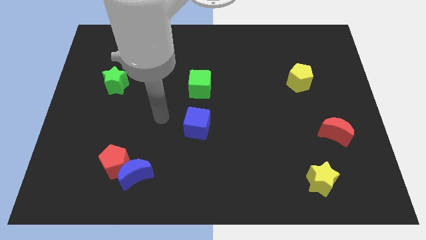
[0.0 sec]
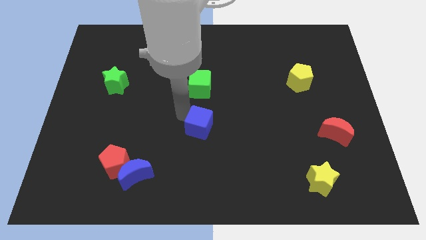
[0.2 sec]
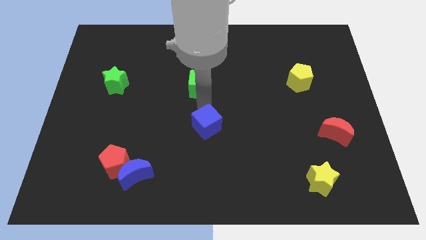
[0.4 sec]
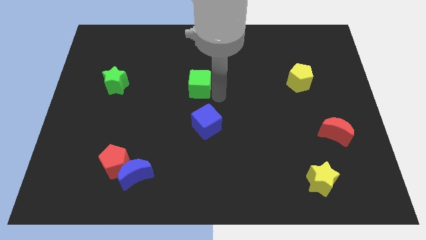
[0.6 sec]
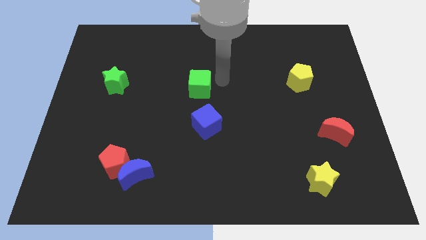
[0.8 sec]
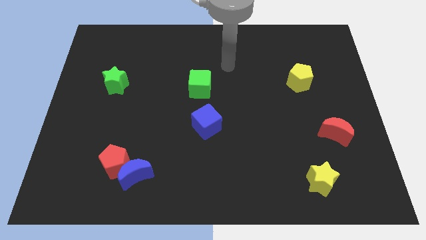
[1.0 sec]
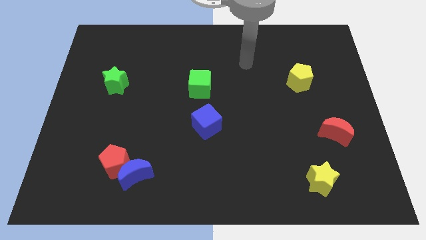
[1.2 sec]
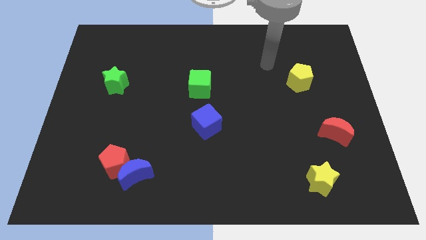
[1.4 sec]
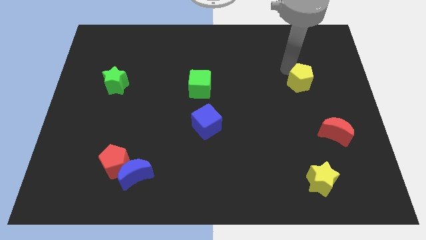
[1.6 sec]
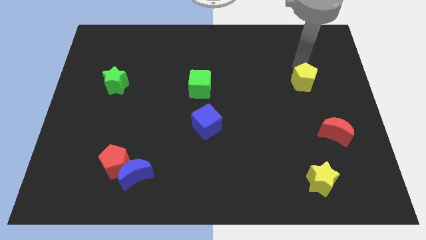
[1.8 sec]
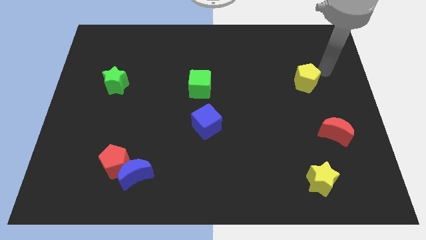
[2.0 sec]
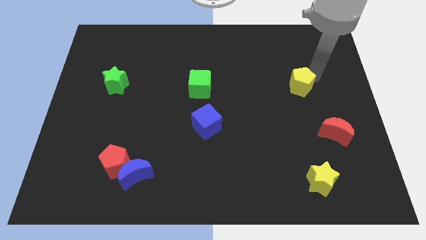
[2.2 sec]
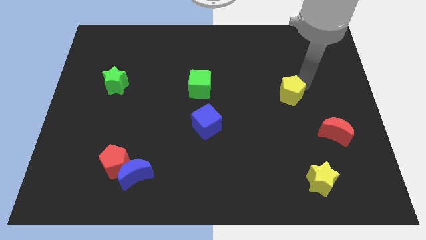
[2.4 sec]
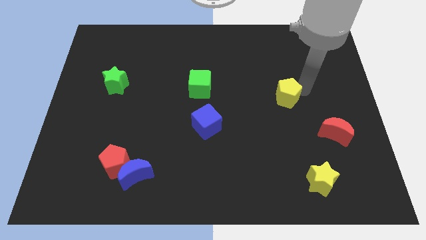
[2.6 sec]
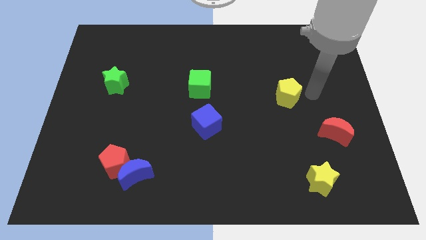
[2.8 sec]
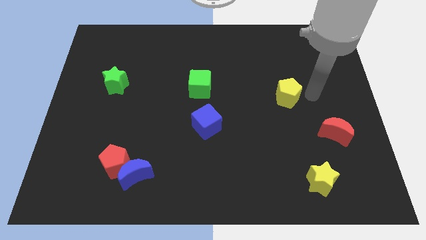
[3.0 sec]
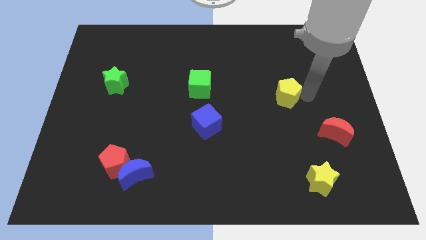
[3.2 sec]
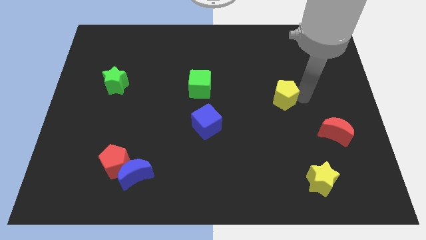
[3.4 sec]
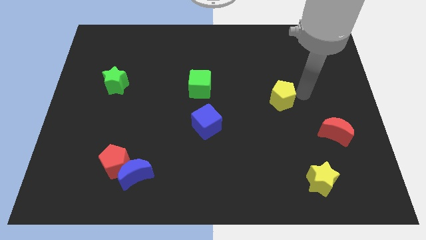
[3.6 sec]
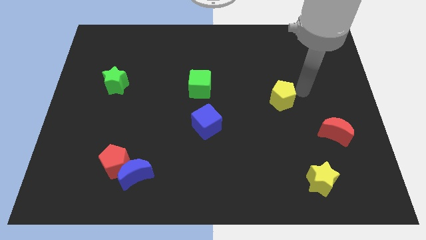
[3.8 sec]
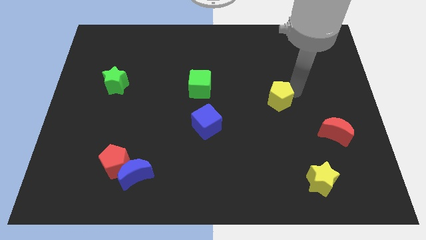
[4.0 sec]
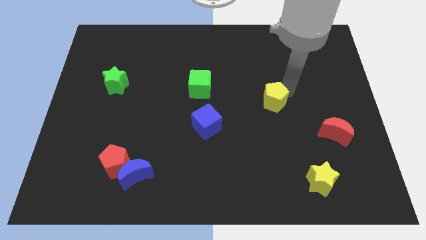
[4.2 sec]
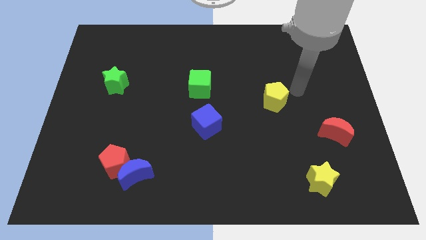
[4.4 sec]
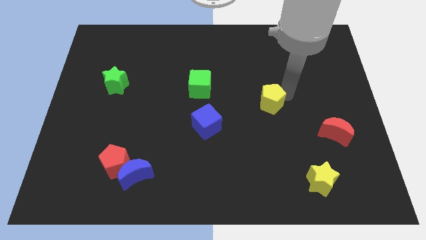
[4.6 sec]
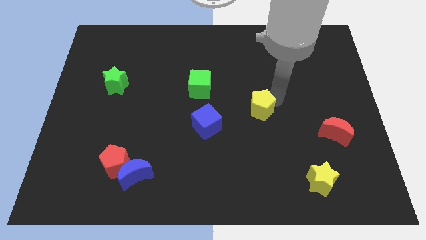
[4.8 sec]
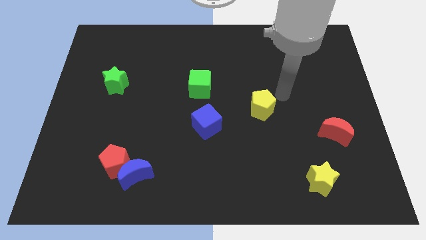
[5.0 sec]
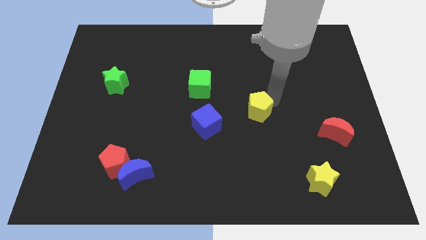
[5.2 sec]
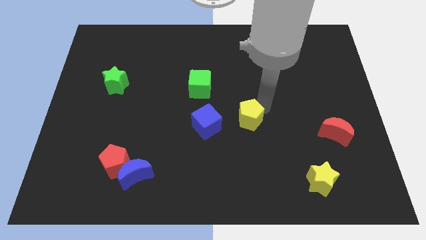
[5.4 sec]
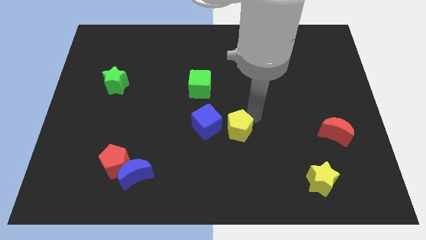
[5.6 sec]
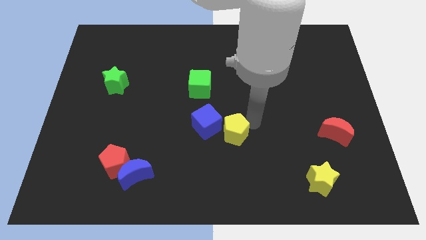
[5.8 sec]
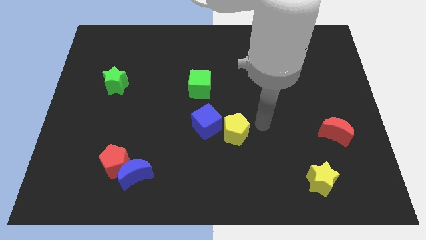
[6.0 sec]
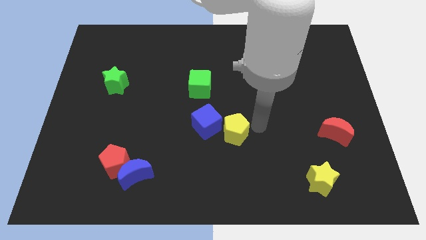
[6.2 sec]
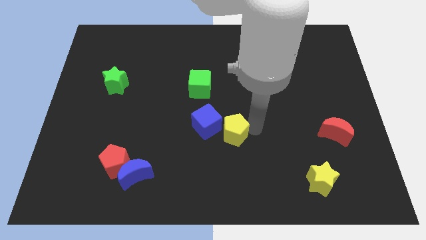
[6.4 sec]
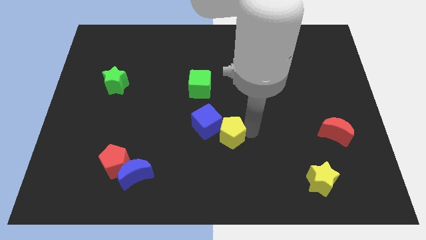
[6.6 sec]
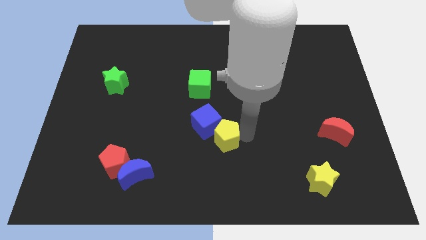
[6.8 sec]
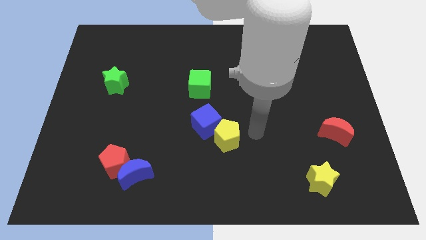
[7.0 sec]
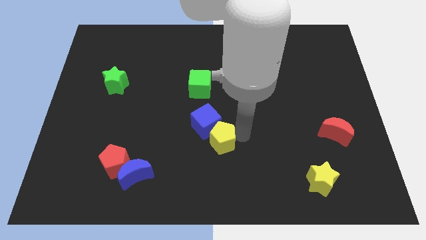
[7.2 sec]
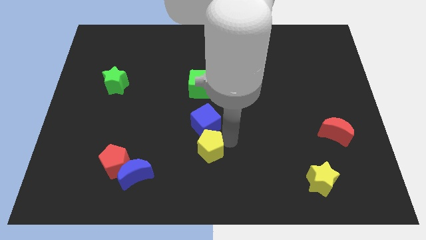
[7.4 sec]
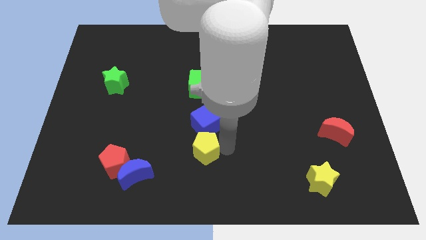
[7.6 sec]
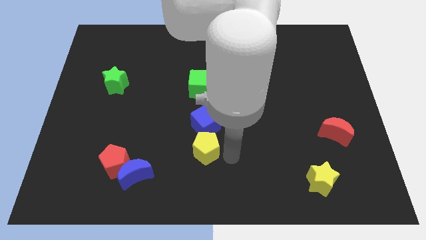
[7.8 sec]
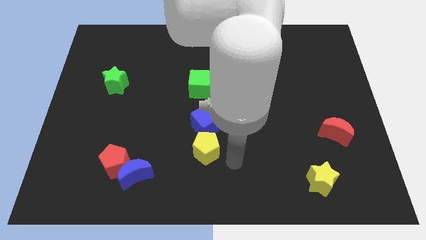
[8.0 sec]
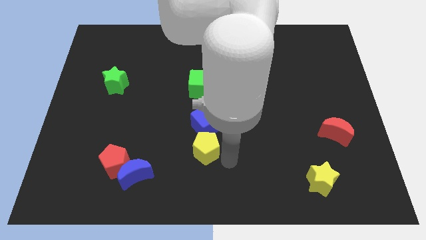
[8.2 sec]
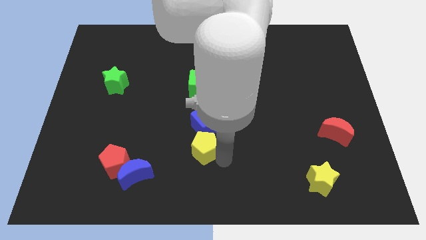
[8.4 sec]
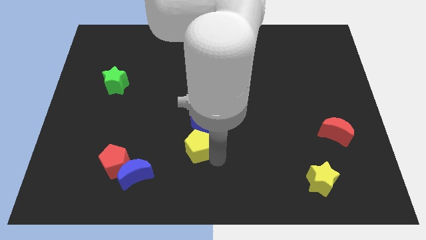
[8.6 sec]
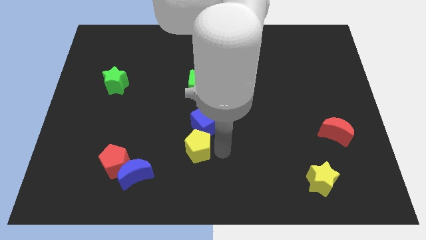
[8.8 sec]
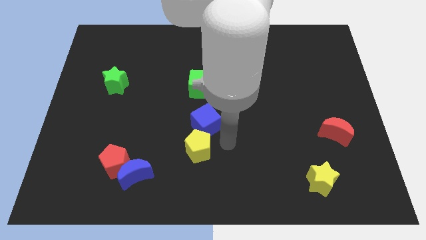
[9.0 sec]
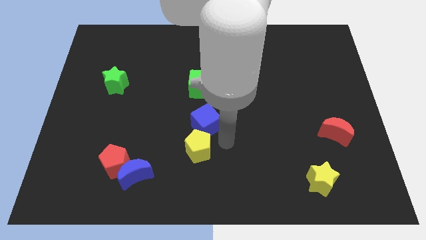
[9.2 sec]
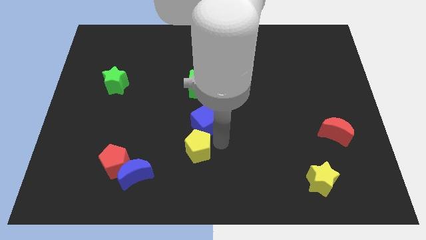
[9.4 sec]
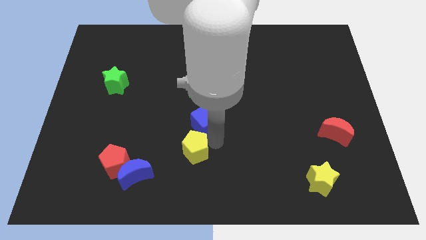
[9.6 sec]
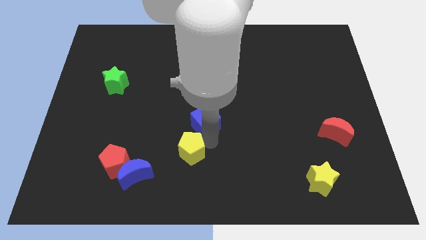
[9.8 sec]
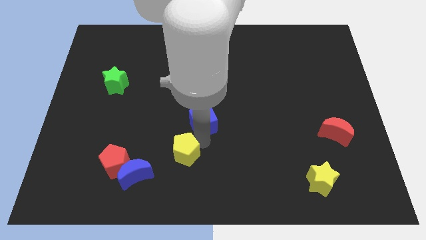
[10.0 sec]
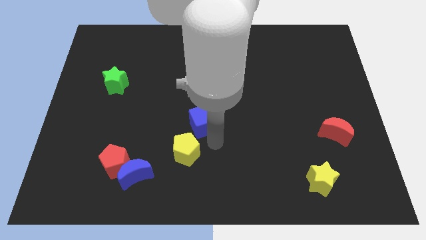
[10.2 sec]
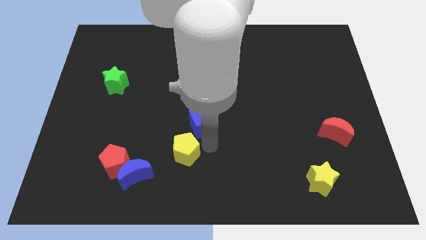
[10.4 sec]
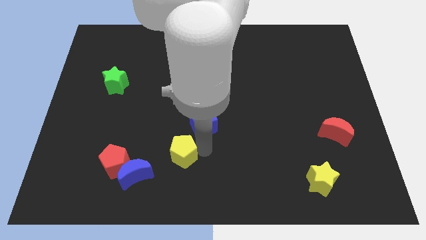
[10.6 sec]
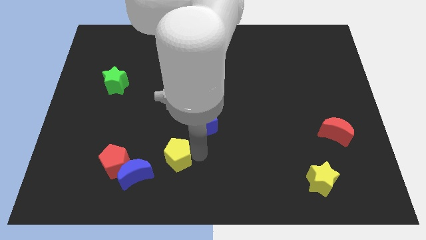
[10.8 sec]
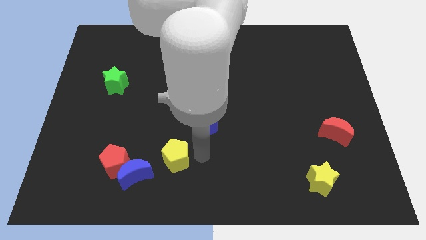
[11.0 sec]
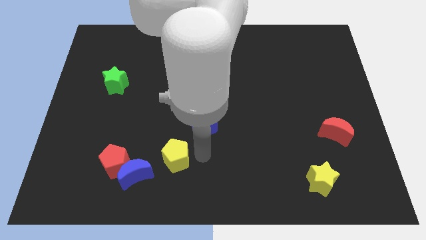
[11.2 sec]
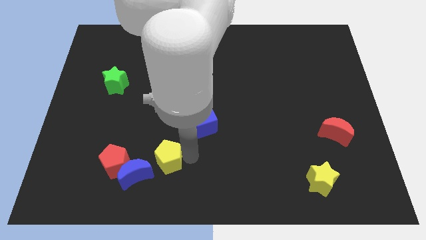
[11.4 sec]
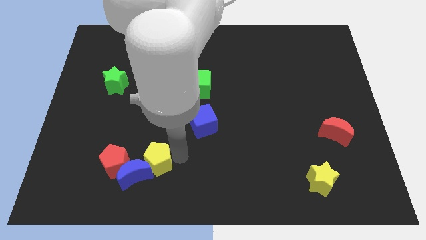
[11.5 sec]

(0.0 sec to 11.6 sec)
slide the yellow pentagon to the blue moon

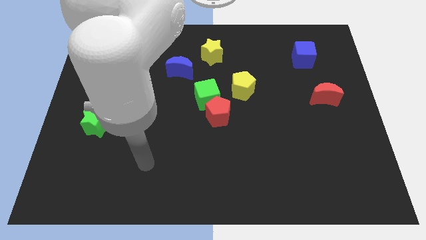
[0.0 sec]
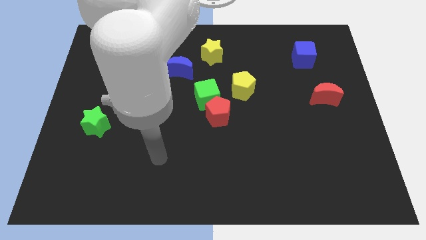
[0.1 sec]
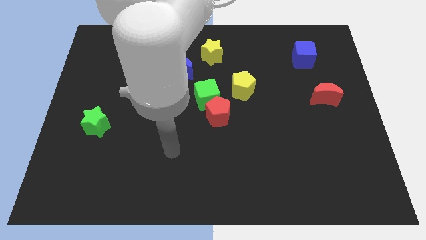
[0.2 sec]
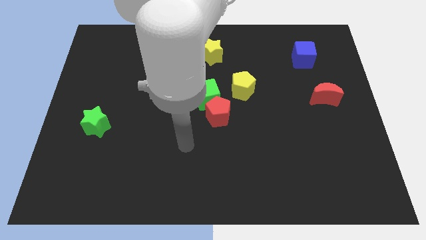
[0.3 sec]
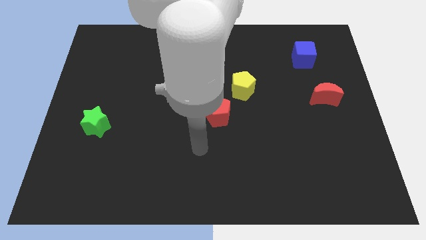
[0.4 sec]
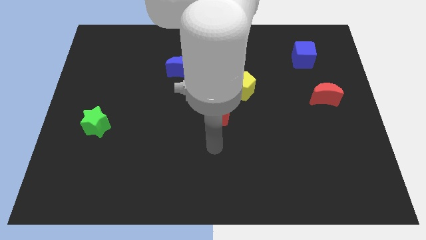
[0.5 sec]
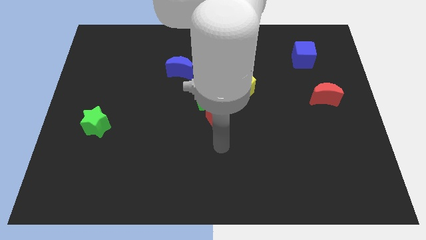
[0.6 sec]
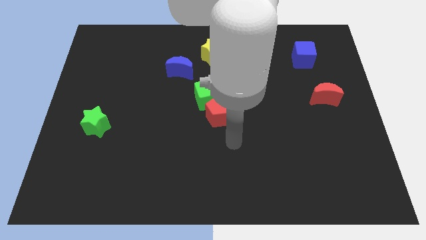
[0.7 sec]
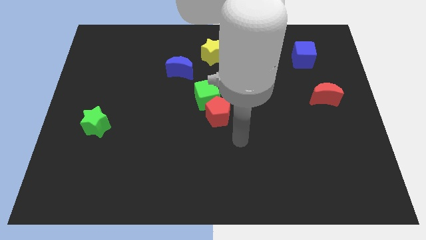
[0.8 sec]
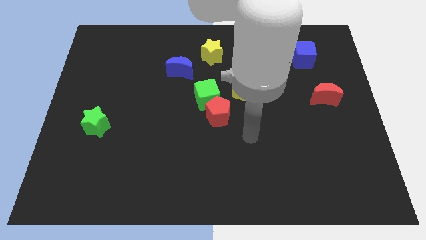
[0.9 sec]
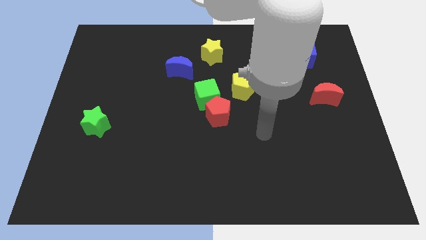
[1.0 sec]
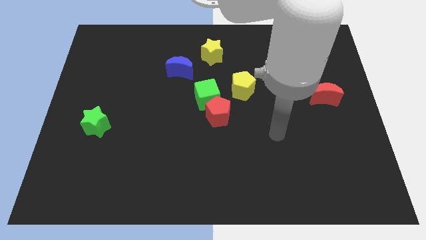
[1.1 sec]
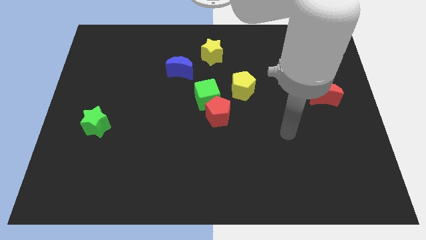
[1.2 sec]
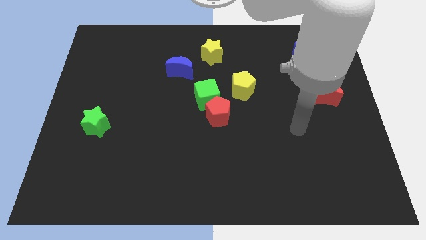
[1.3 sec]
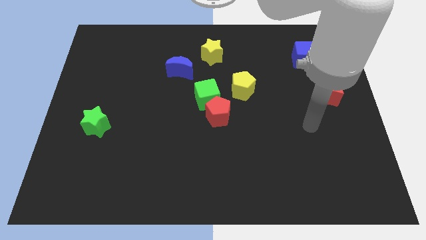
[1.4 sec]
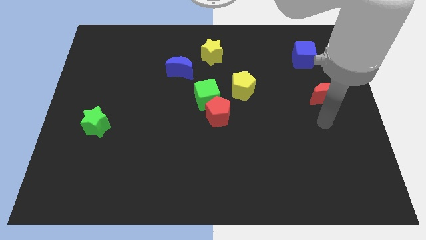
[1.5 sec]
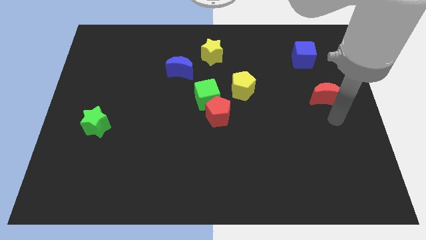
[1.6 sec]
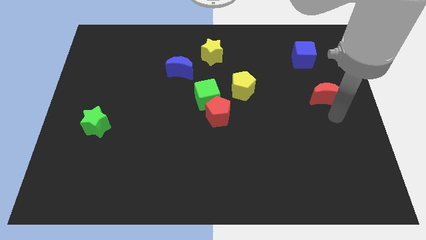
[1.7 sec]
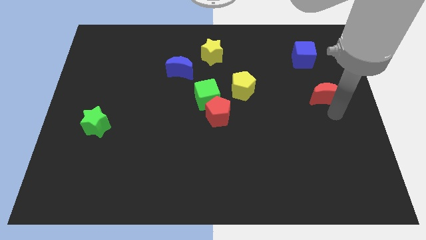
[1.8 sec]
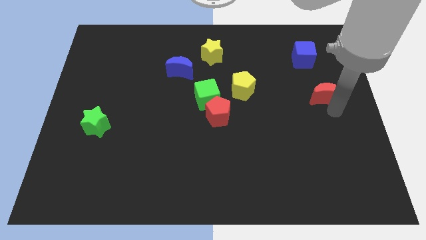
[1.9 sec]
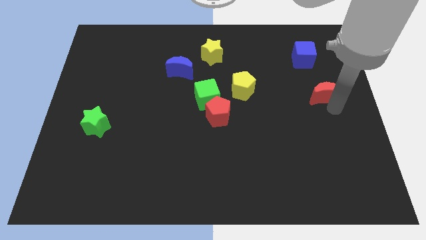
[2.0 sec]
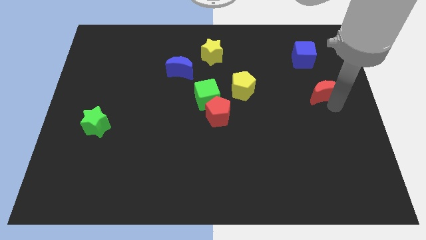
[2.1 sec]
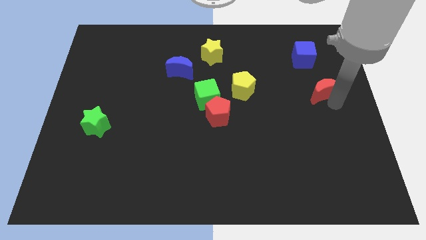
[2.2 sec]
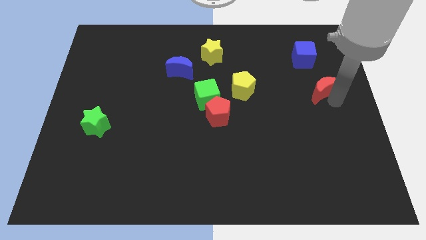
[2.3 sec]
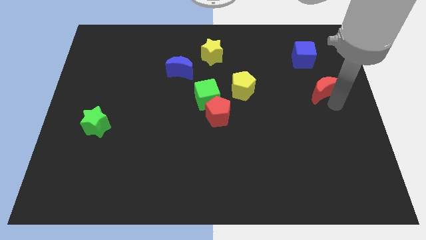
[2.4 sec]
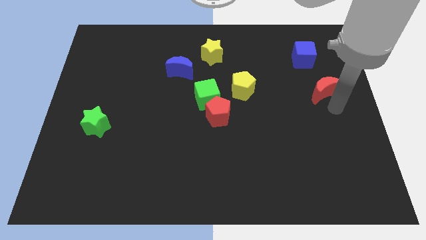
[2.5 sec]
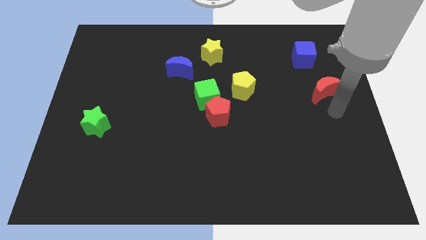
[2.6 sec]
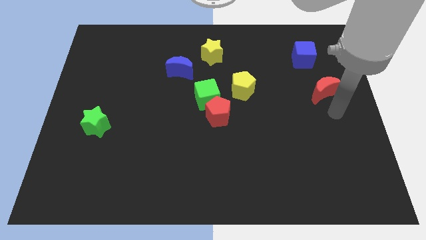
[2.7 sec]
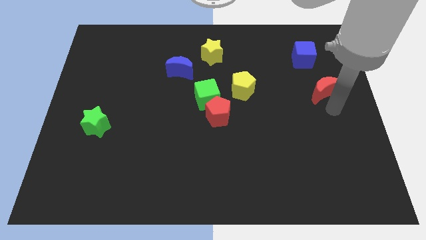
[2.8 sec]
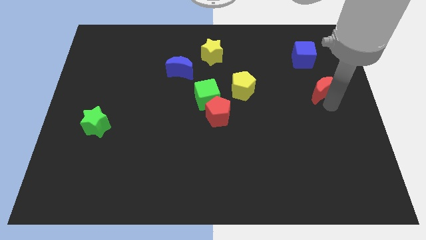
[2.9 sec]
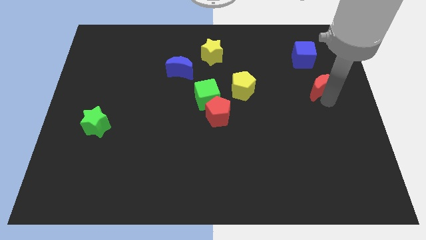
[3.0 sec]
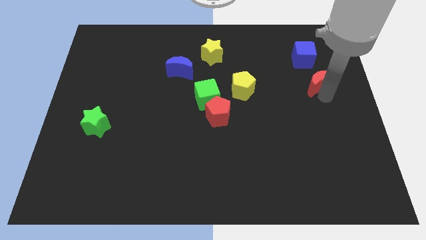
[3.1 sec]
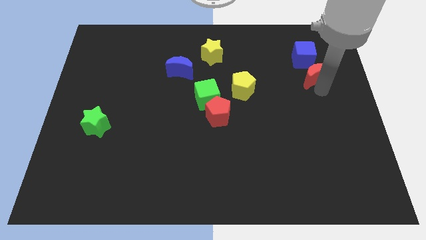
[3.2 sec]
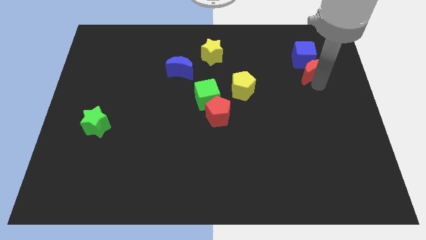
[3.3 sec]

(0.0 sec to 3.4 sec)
slide the red moon next to the blue cube
